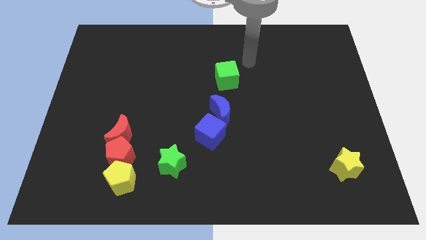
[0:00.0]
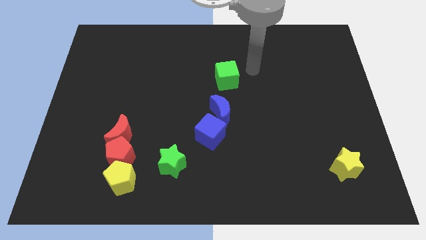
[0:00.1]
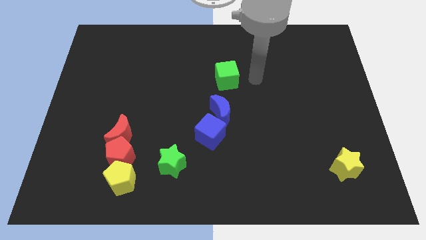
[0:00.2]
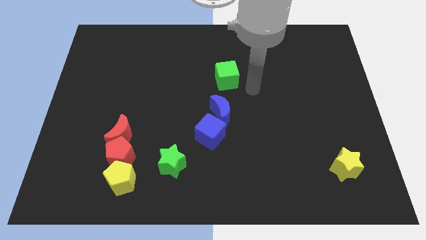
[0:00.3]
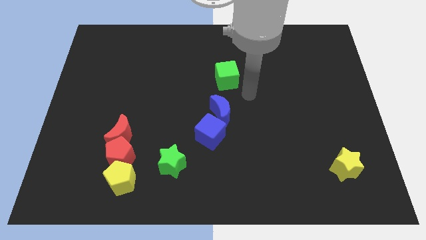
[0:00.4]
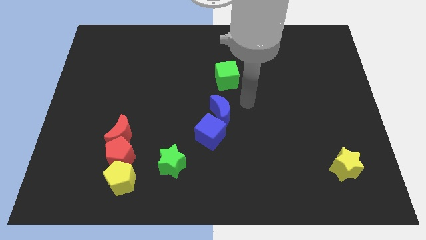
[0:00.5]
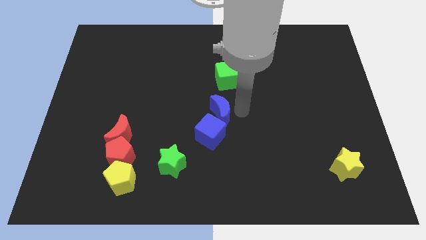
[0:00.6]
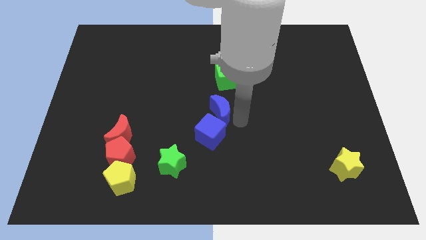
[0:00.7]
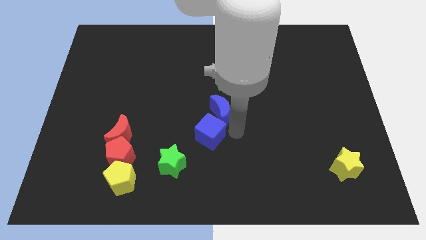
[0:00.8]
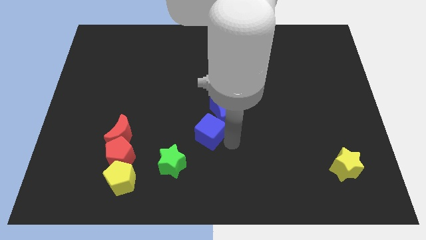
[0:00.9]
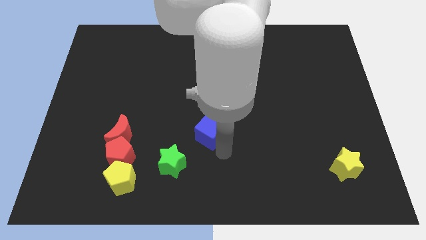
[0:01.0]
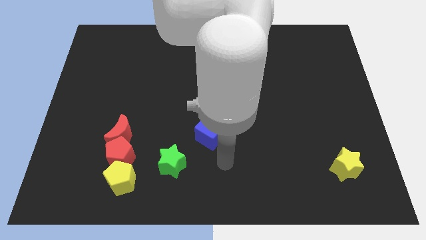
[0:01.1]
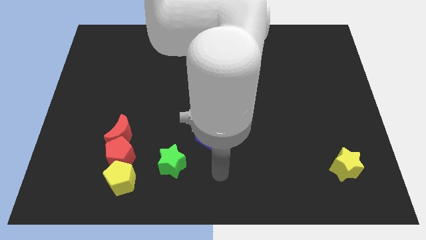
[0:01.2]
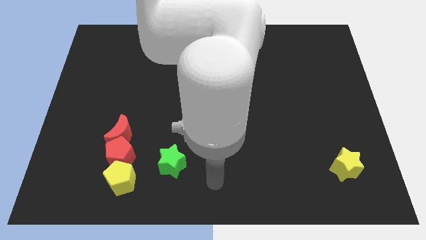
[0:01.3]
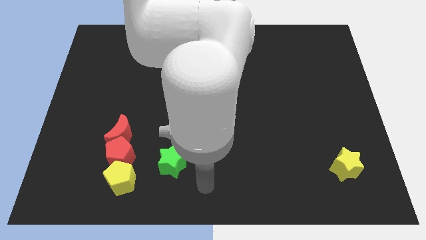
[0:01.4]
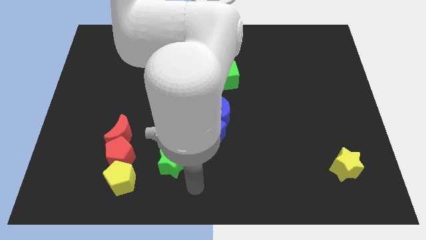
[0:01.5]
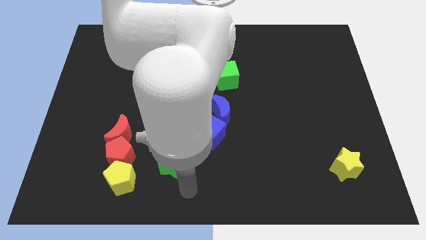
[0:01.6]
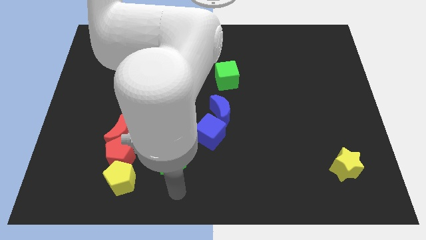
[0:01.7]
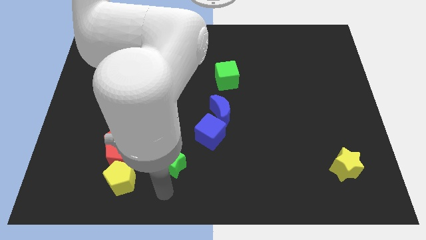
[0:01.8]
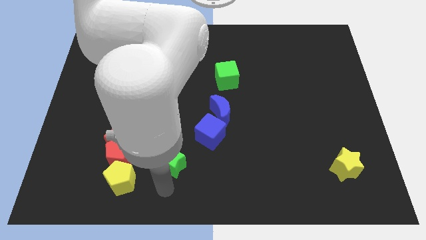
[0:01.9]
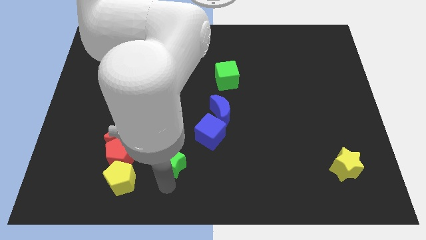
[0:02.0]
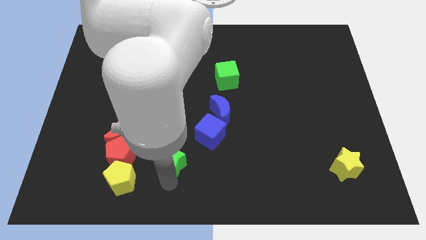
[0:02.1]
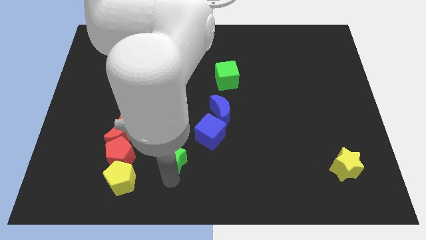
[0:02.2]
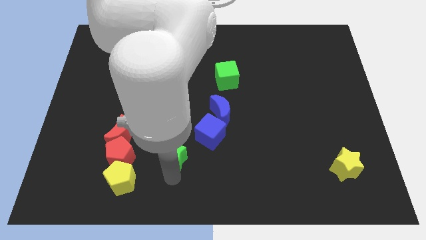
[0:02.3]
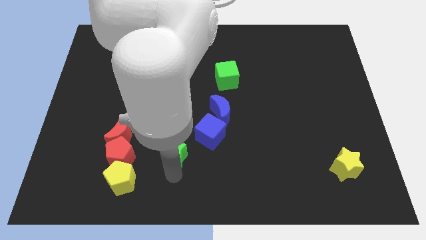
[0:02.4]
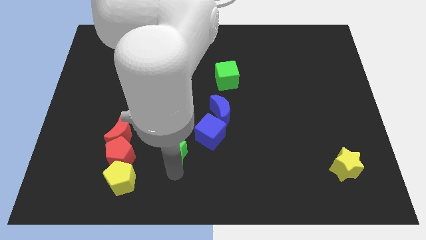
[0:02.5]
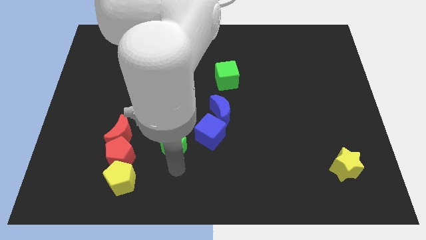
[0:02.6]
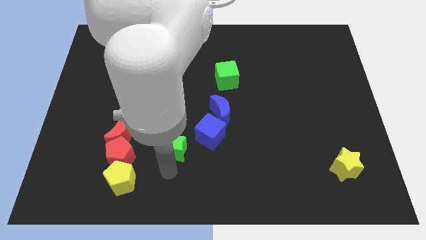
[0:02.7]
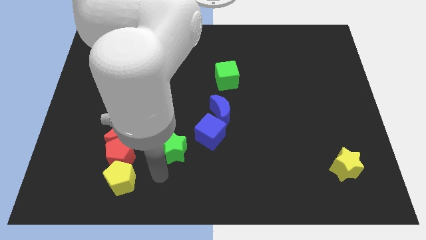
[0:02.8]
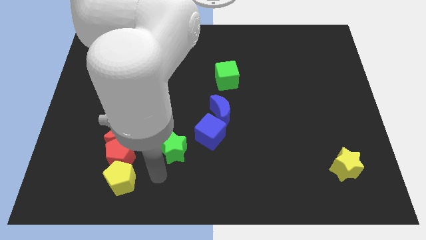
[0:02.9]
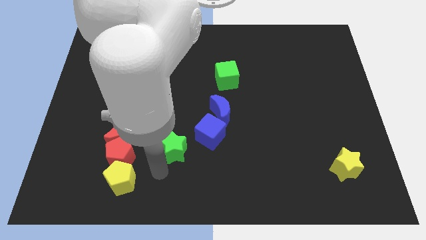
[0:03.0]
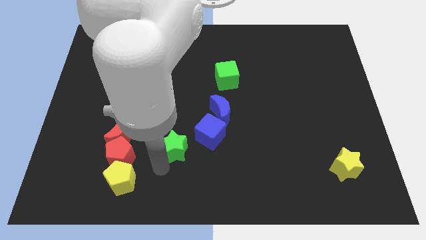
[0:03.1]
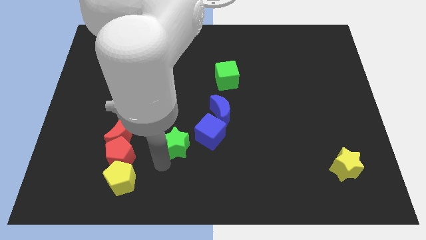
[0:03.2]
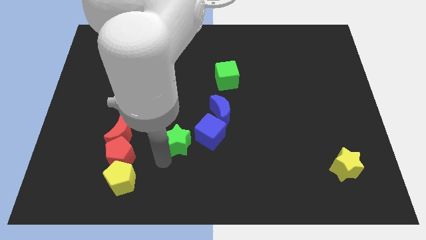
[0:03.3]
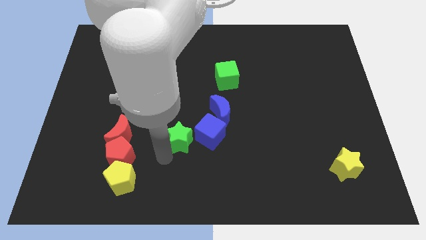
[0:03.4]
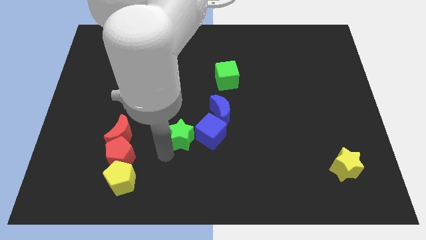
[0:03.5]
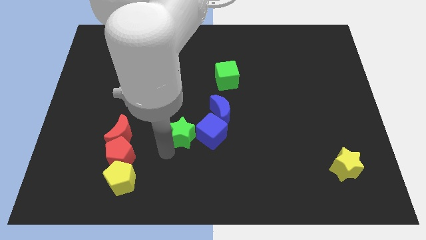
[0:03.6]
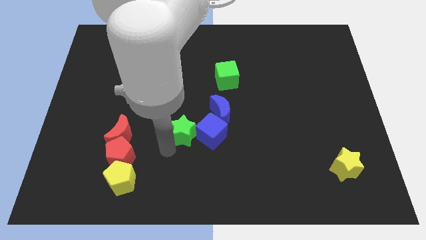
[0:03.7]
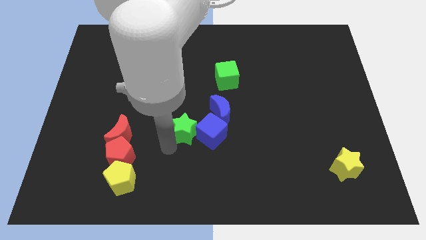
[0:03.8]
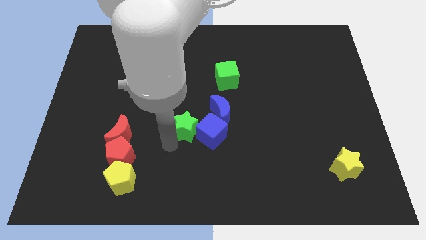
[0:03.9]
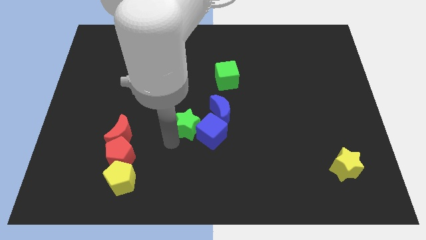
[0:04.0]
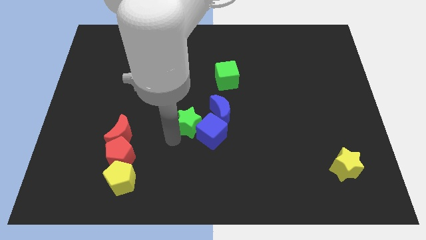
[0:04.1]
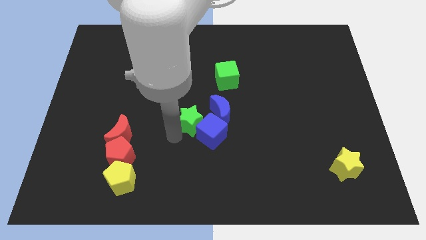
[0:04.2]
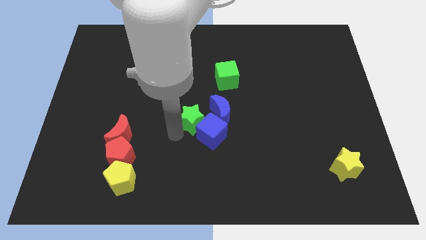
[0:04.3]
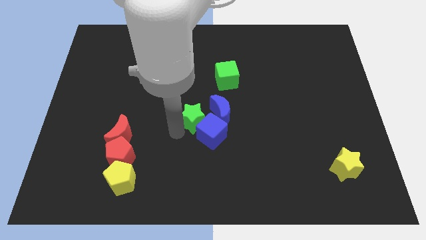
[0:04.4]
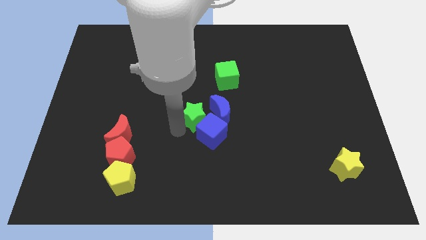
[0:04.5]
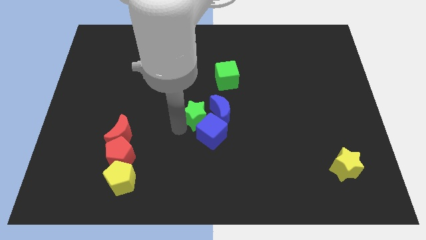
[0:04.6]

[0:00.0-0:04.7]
push the green star close to the blue moon

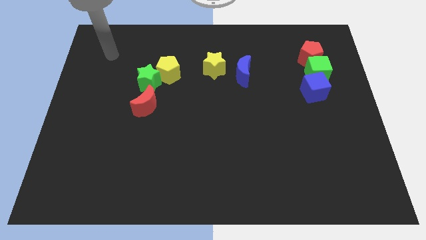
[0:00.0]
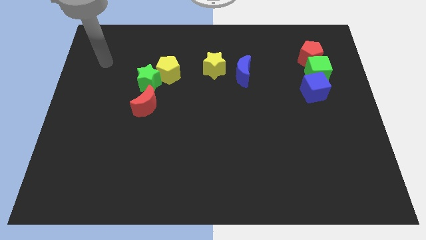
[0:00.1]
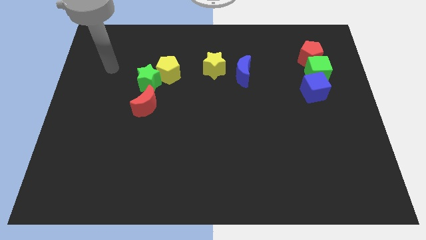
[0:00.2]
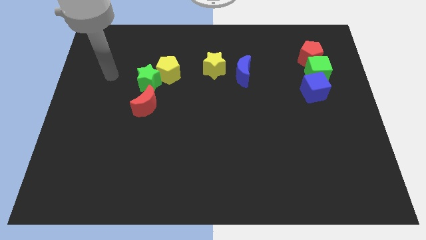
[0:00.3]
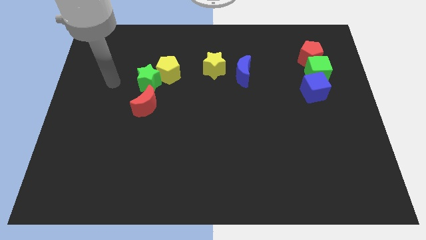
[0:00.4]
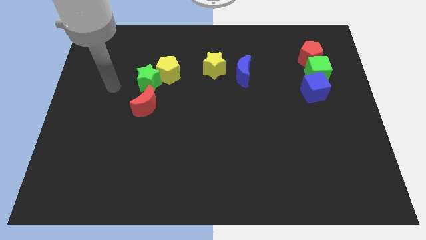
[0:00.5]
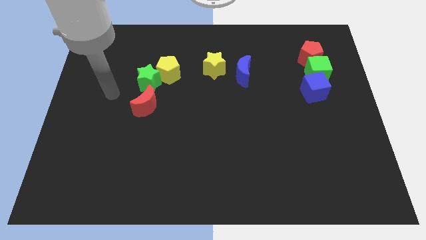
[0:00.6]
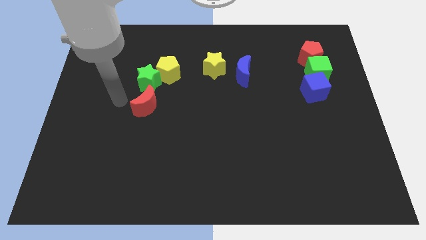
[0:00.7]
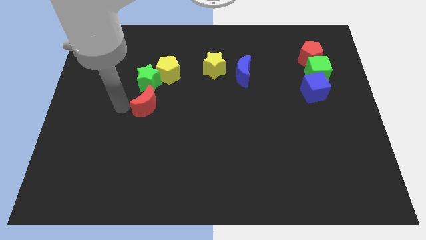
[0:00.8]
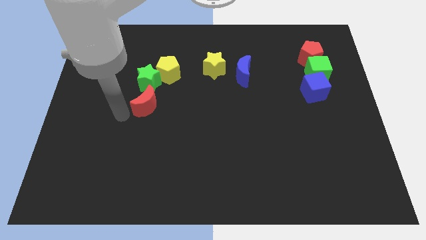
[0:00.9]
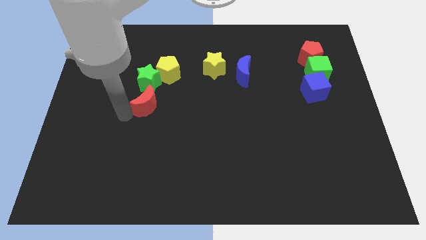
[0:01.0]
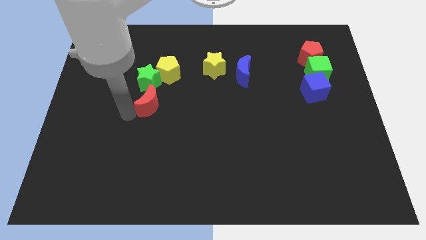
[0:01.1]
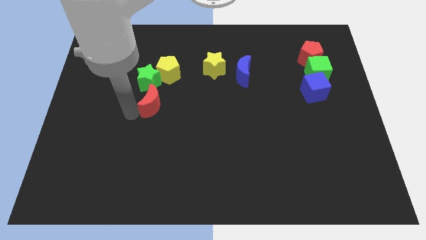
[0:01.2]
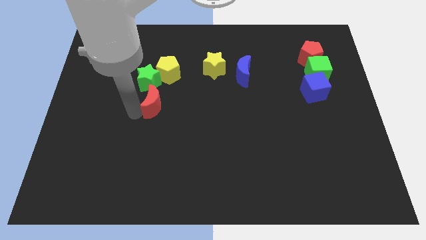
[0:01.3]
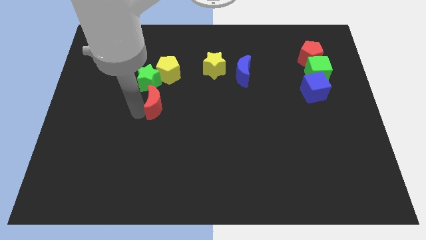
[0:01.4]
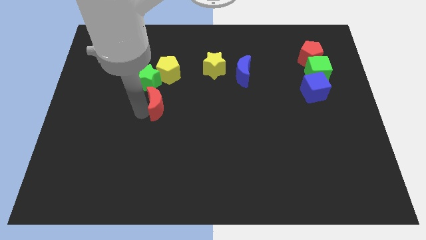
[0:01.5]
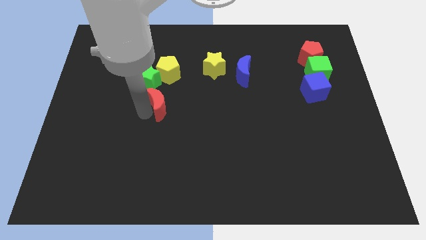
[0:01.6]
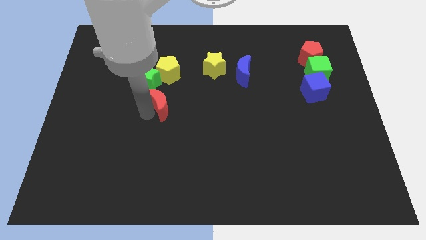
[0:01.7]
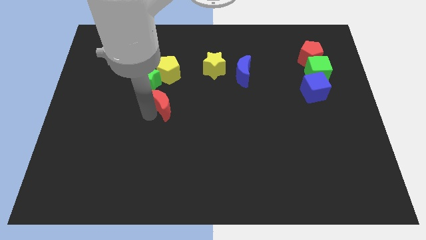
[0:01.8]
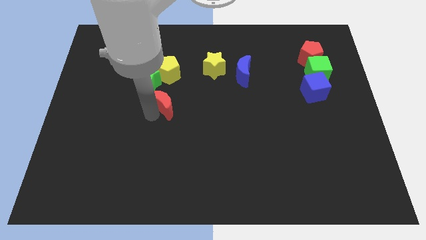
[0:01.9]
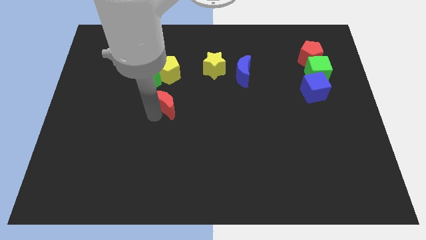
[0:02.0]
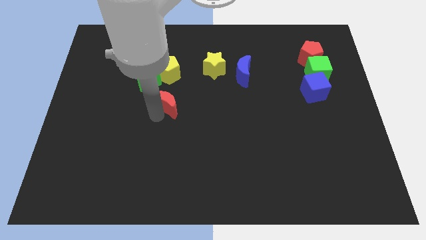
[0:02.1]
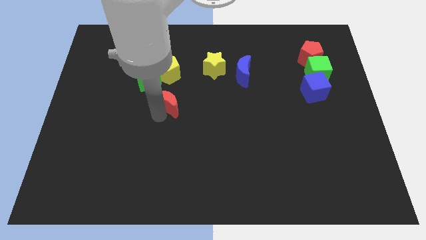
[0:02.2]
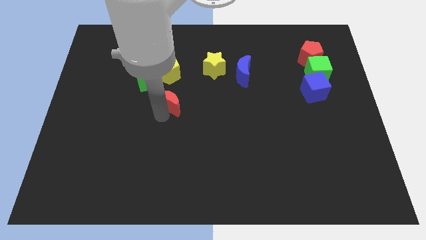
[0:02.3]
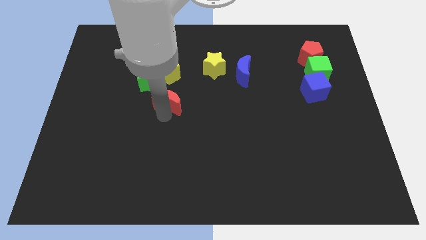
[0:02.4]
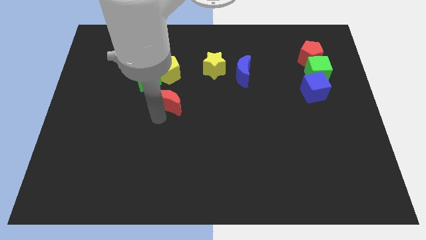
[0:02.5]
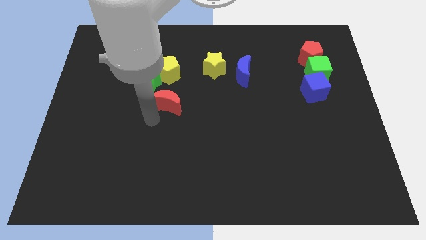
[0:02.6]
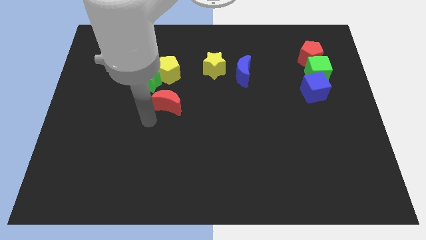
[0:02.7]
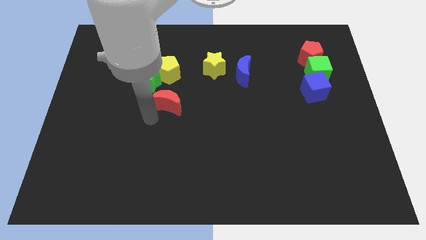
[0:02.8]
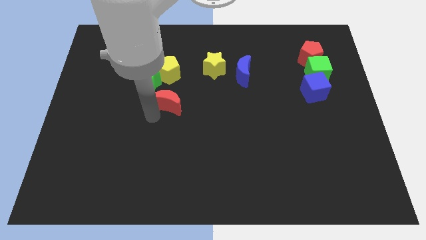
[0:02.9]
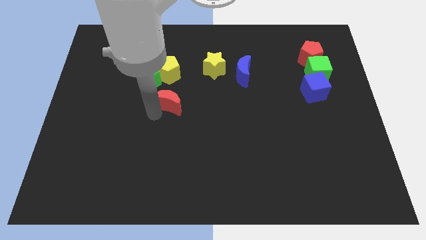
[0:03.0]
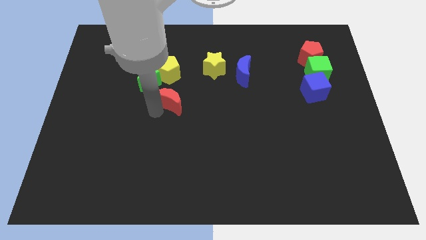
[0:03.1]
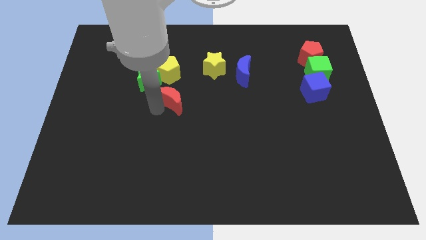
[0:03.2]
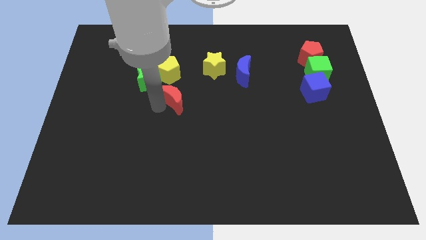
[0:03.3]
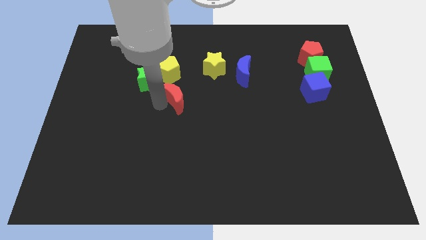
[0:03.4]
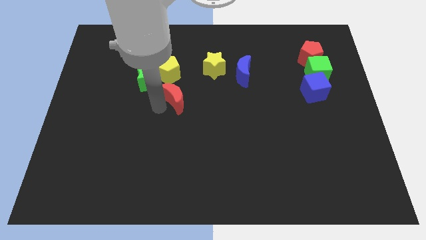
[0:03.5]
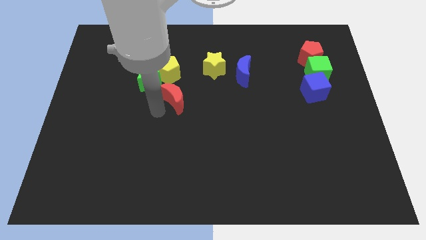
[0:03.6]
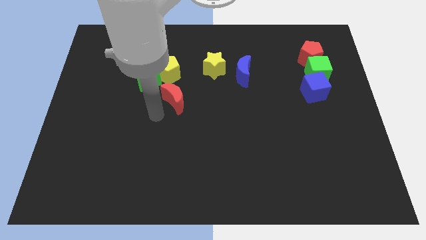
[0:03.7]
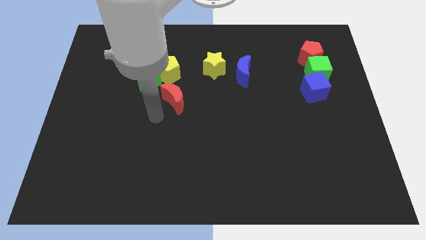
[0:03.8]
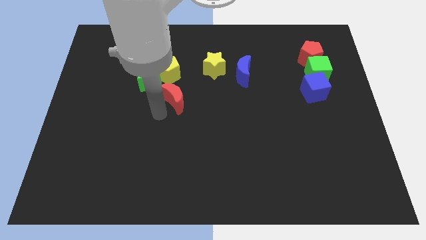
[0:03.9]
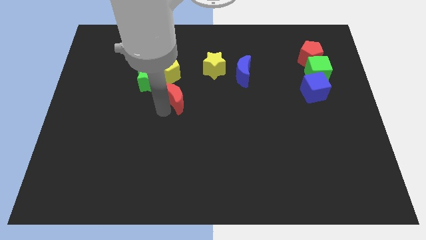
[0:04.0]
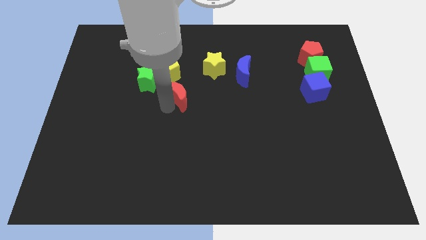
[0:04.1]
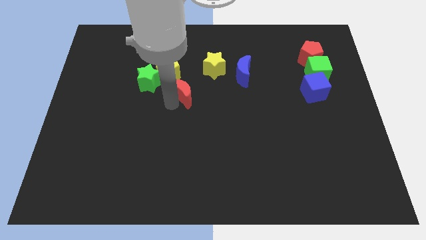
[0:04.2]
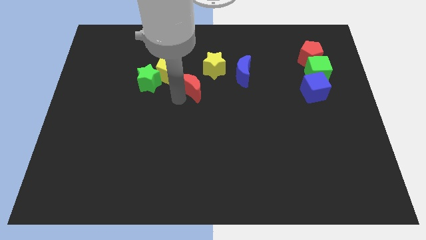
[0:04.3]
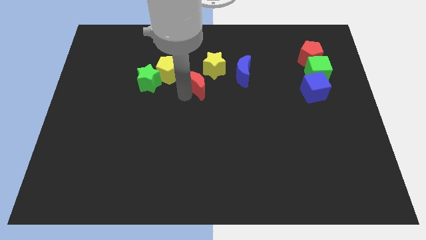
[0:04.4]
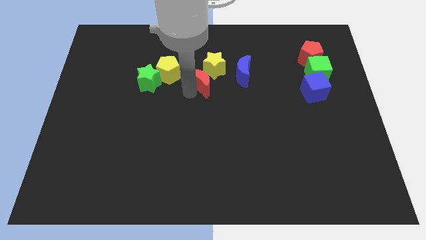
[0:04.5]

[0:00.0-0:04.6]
put the red moon to the yellow star
